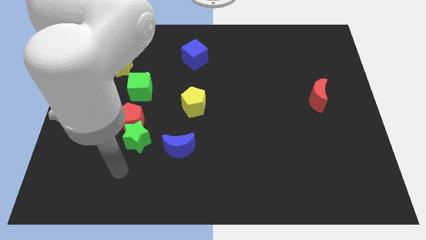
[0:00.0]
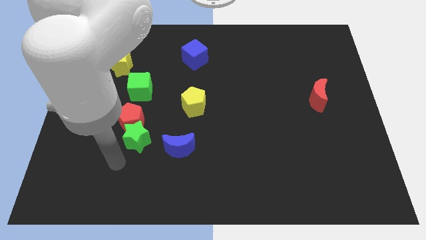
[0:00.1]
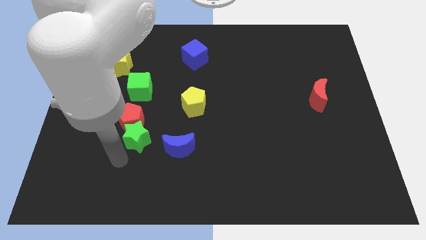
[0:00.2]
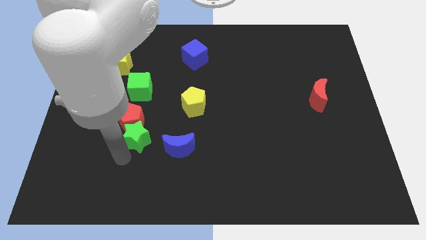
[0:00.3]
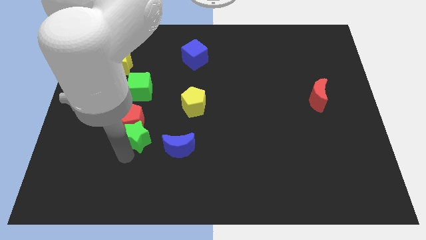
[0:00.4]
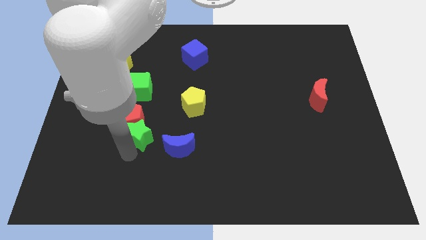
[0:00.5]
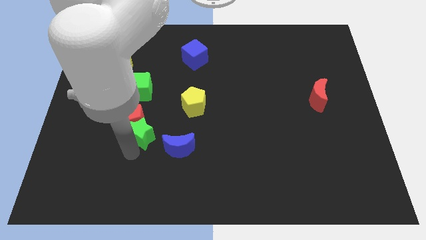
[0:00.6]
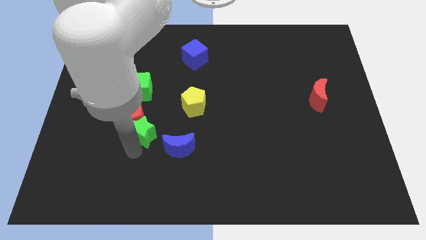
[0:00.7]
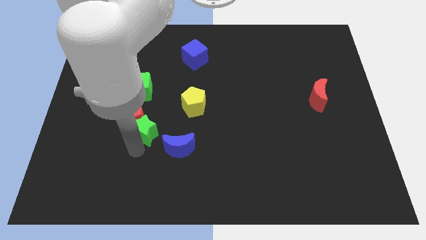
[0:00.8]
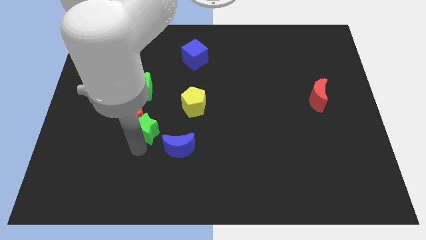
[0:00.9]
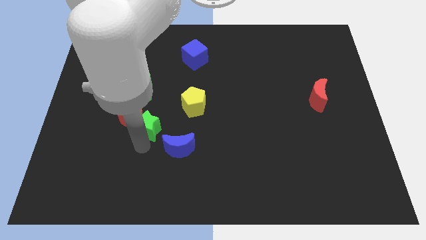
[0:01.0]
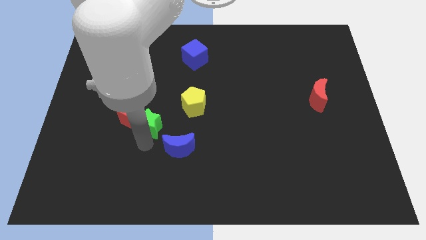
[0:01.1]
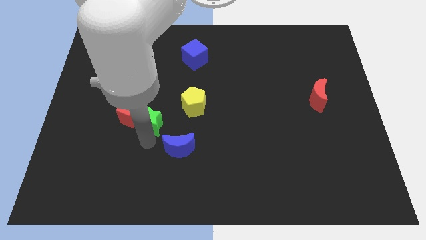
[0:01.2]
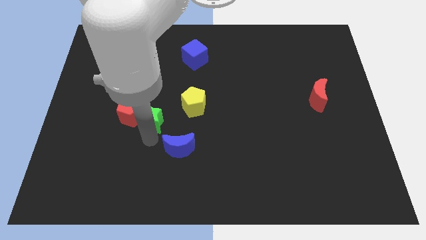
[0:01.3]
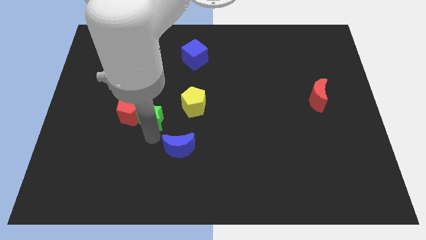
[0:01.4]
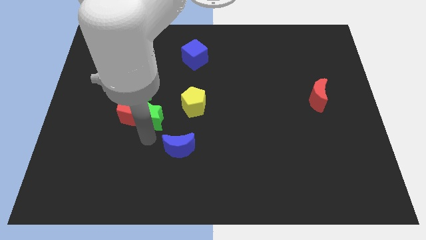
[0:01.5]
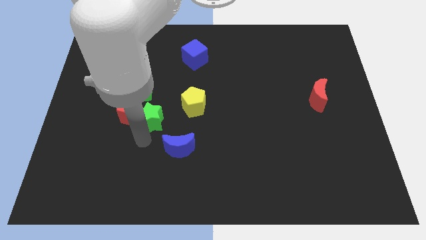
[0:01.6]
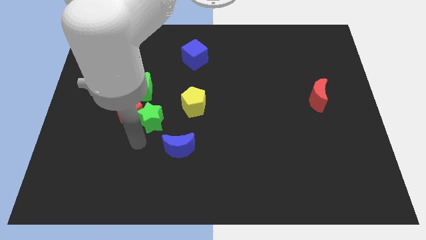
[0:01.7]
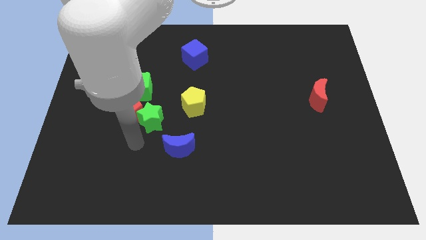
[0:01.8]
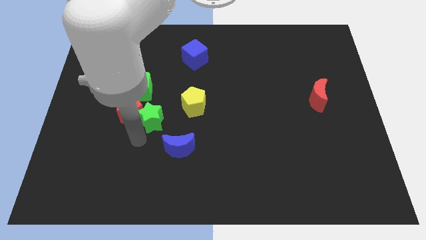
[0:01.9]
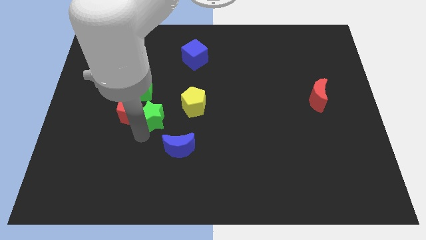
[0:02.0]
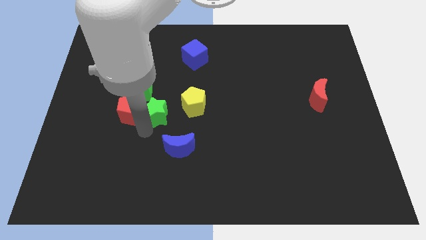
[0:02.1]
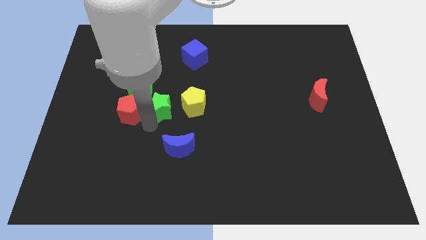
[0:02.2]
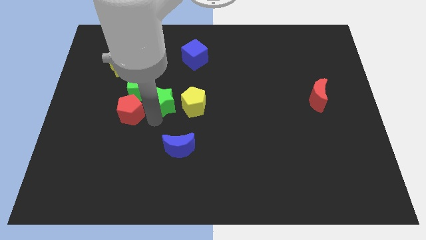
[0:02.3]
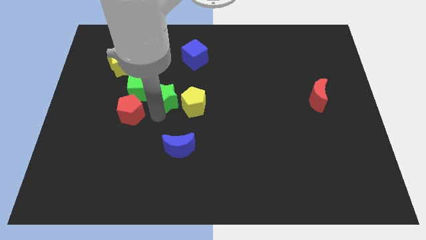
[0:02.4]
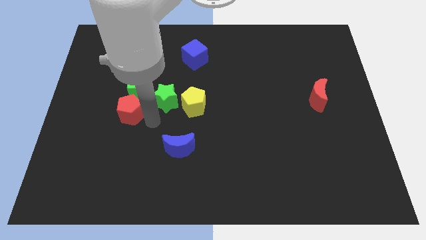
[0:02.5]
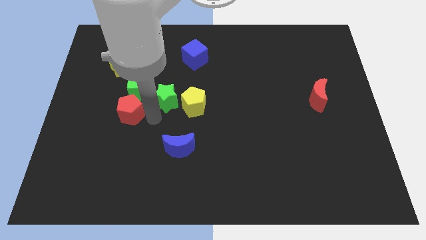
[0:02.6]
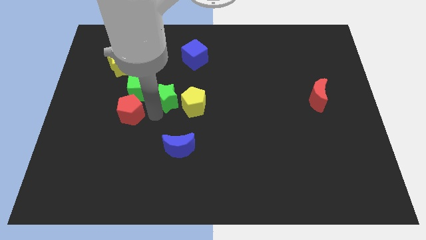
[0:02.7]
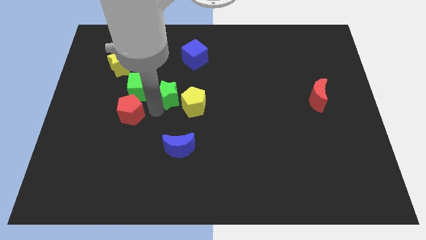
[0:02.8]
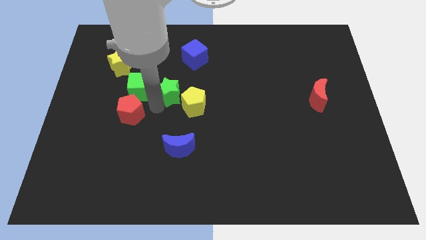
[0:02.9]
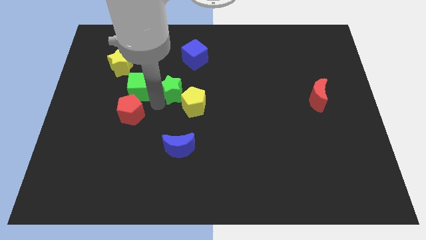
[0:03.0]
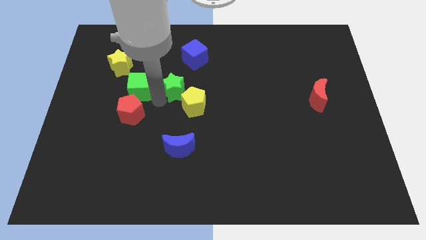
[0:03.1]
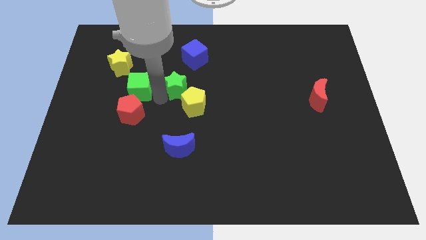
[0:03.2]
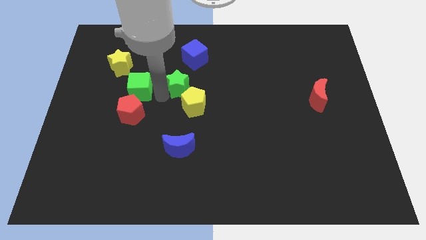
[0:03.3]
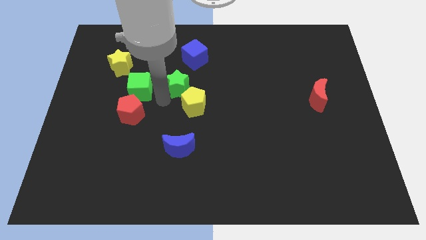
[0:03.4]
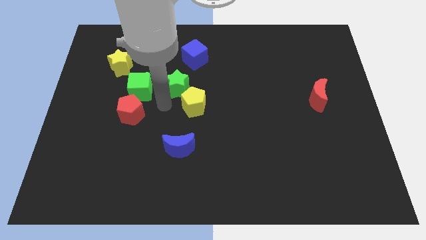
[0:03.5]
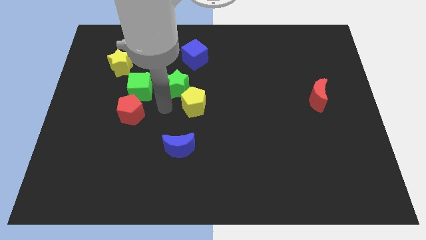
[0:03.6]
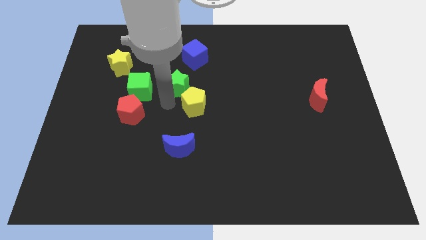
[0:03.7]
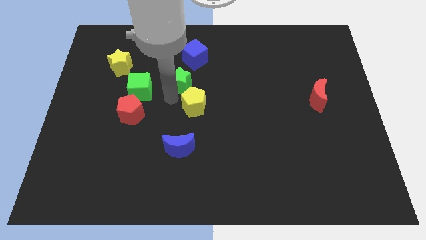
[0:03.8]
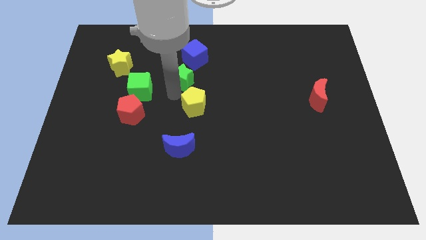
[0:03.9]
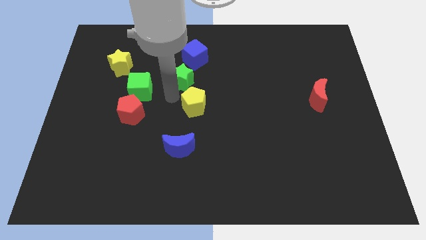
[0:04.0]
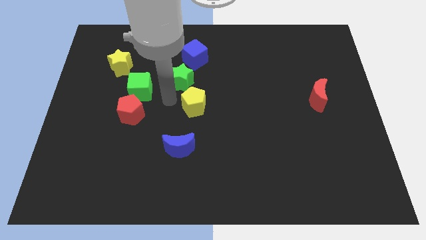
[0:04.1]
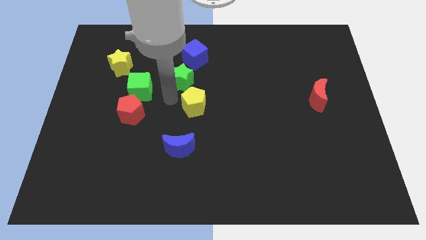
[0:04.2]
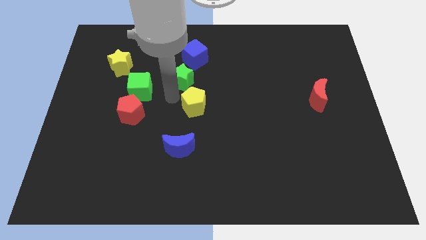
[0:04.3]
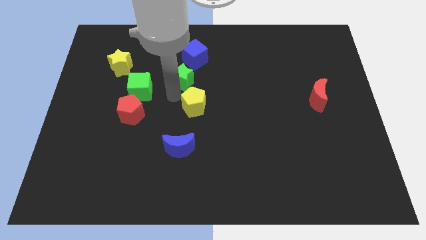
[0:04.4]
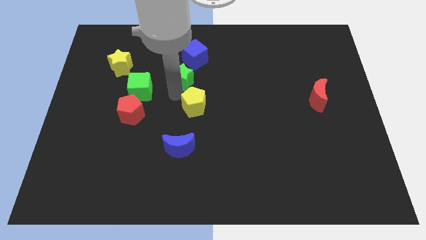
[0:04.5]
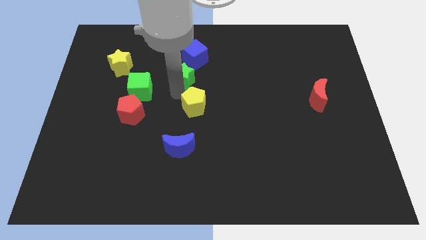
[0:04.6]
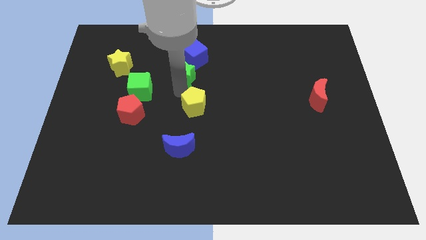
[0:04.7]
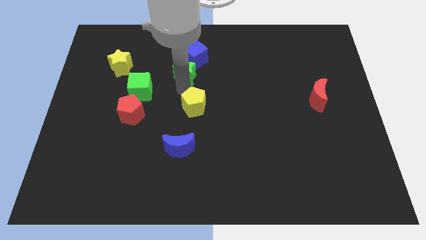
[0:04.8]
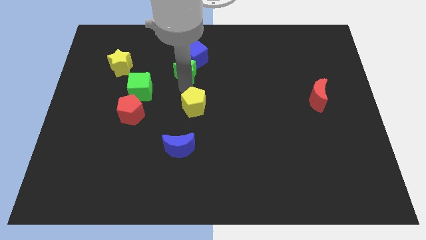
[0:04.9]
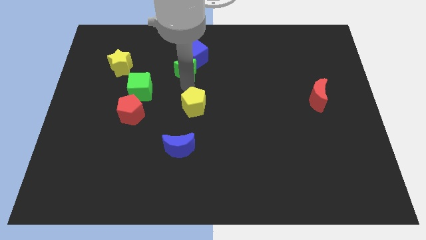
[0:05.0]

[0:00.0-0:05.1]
push the green star next to the blue cube

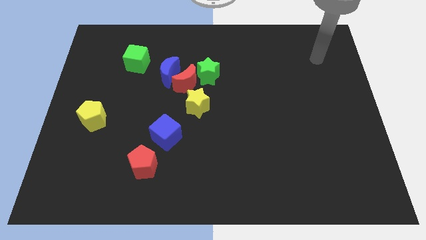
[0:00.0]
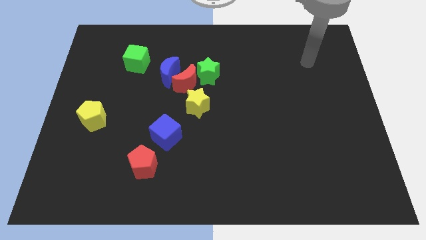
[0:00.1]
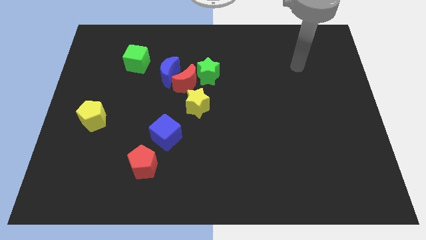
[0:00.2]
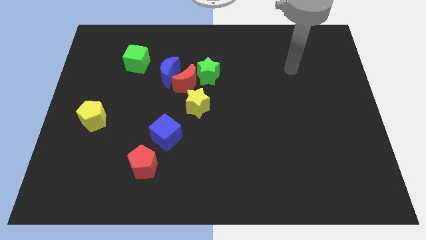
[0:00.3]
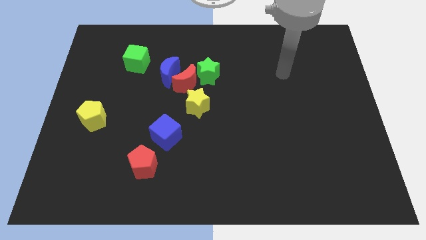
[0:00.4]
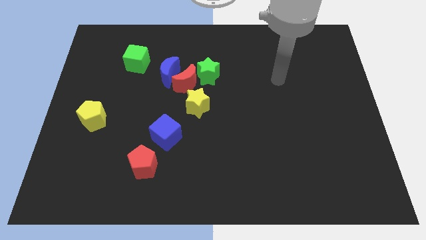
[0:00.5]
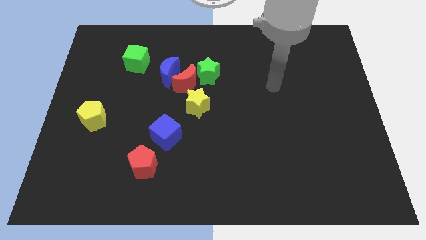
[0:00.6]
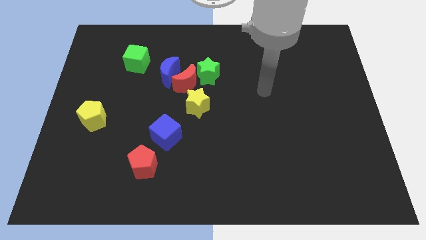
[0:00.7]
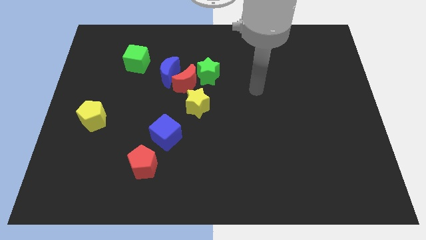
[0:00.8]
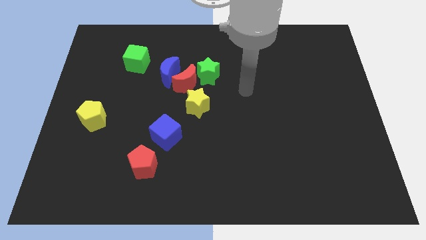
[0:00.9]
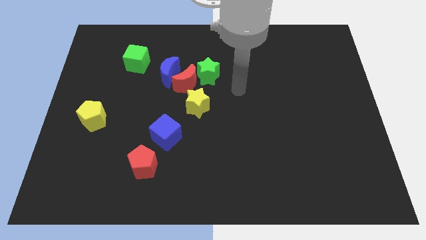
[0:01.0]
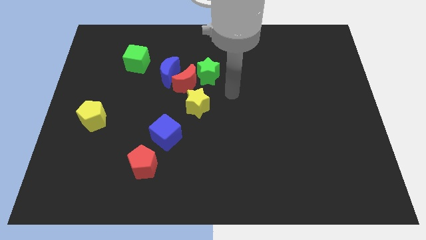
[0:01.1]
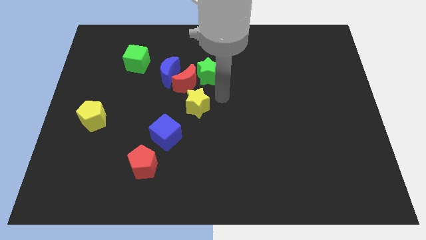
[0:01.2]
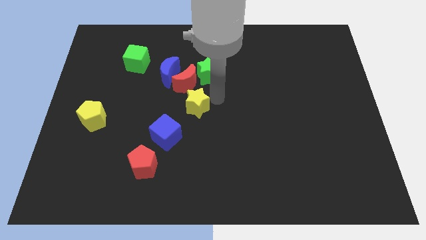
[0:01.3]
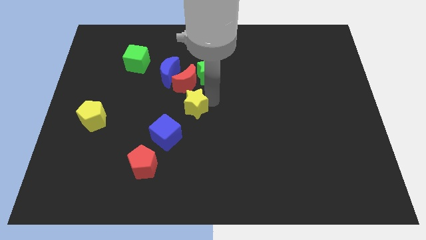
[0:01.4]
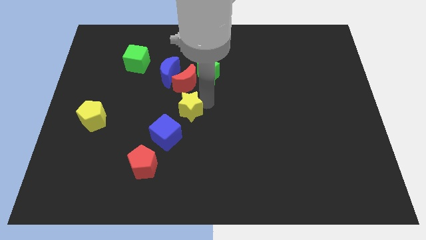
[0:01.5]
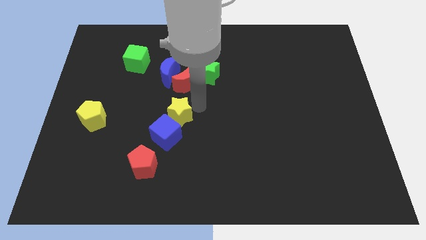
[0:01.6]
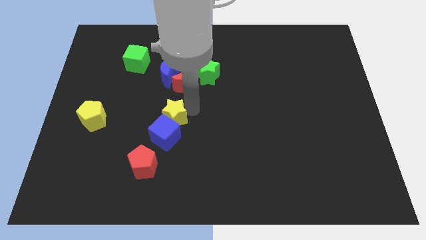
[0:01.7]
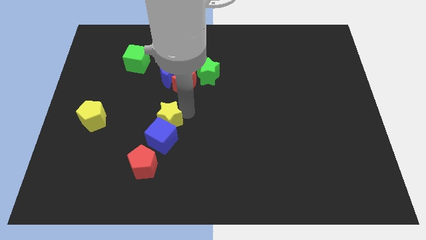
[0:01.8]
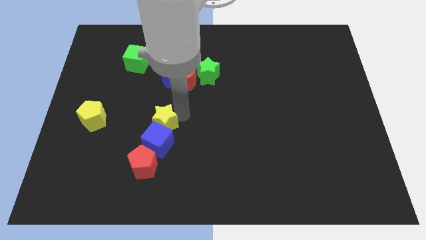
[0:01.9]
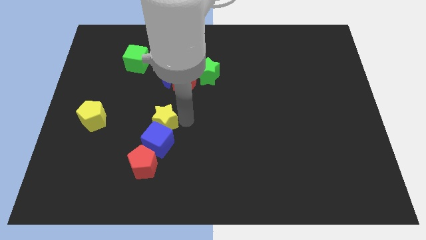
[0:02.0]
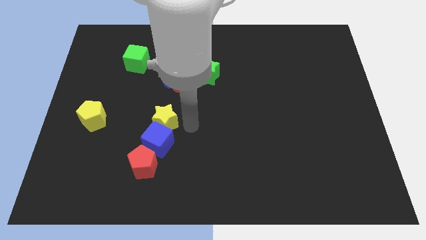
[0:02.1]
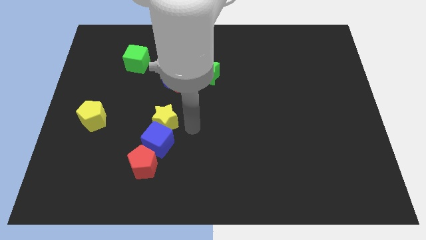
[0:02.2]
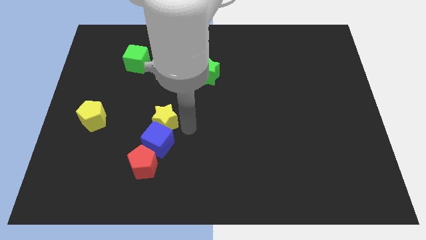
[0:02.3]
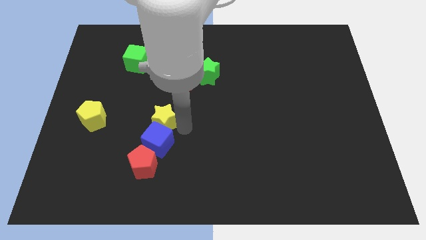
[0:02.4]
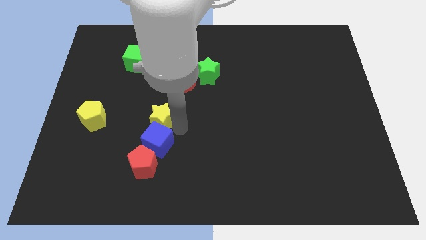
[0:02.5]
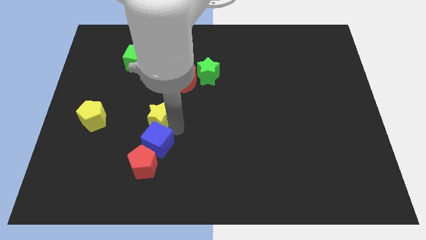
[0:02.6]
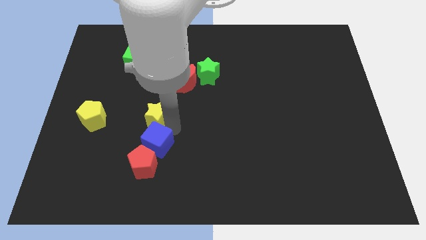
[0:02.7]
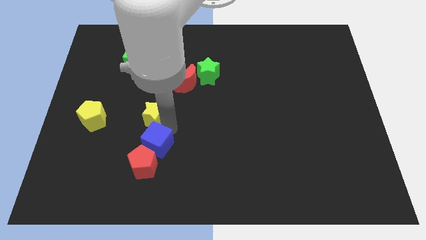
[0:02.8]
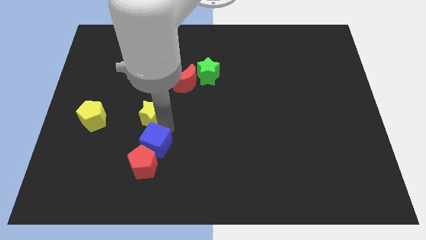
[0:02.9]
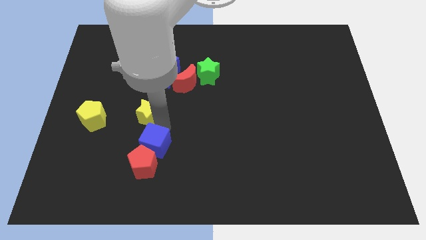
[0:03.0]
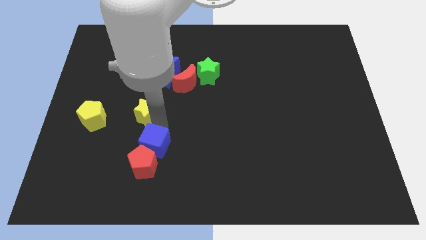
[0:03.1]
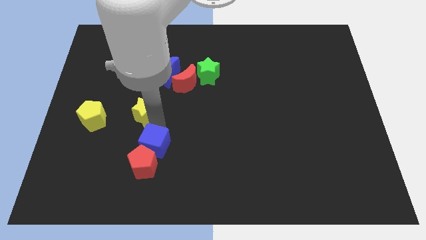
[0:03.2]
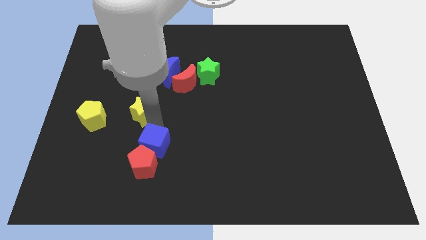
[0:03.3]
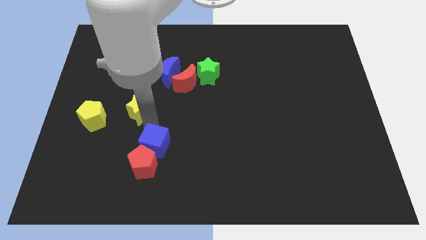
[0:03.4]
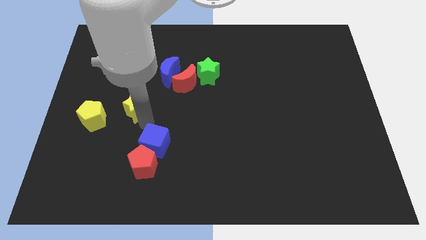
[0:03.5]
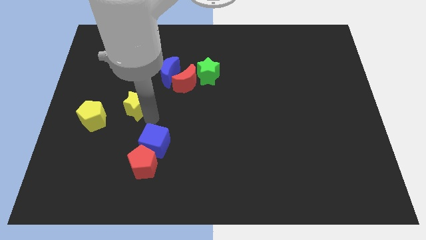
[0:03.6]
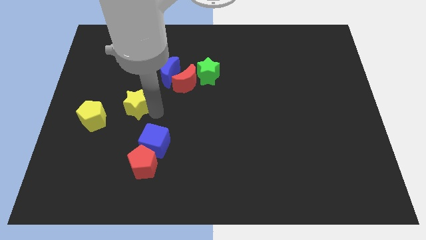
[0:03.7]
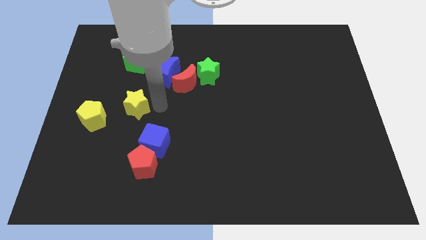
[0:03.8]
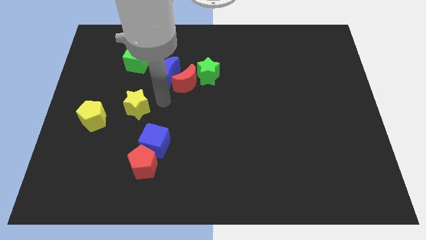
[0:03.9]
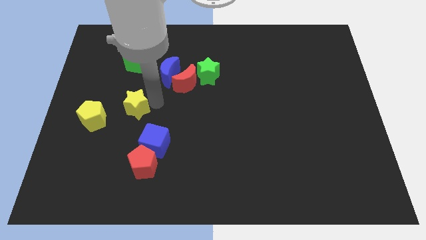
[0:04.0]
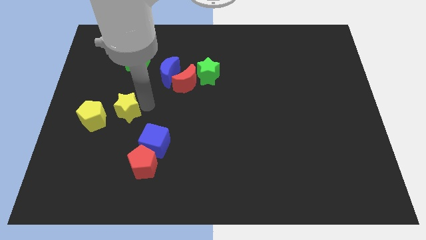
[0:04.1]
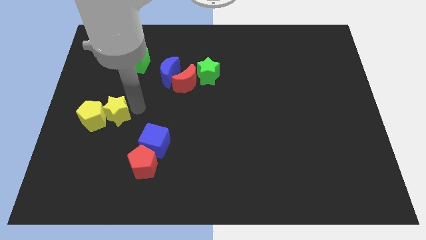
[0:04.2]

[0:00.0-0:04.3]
push the yellow star next to the yellow pentagon
